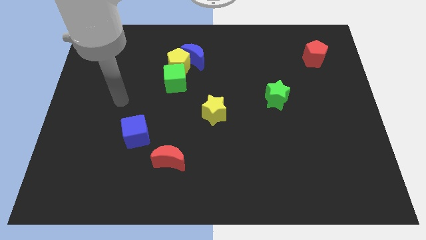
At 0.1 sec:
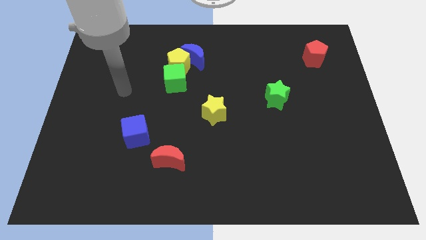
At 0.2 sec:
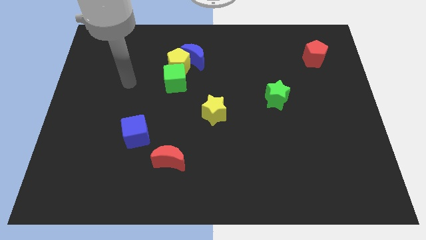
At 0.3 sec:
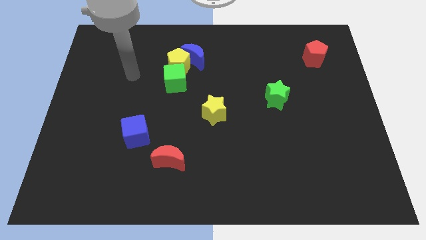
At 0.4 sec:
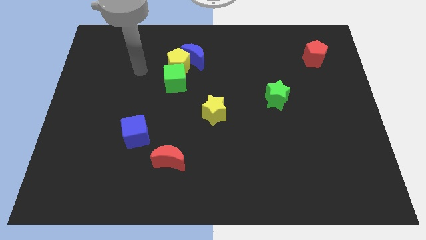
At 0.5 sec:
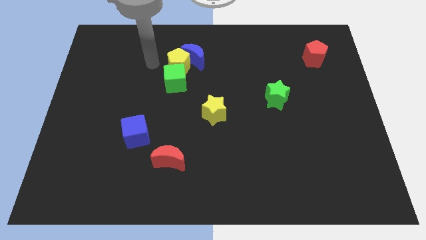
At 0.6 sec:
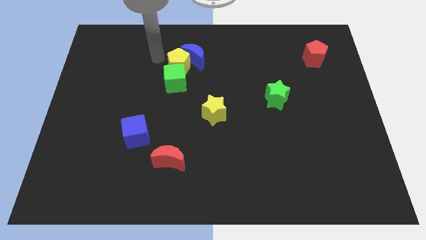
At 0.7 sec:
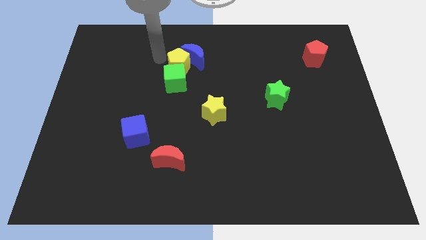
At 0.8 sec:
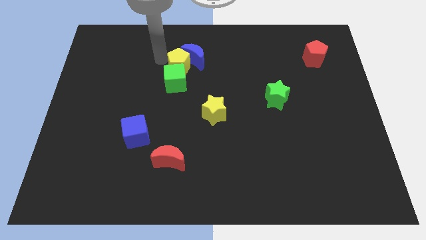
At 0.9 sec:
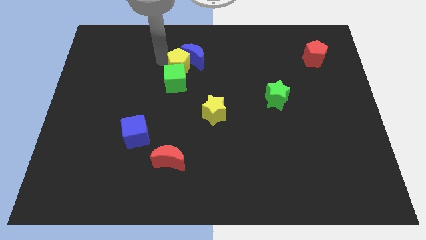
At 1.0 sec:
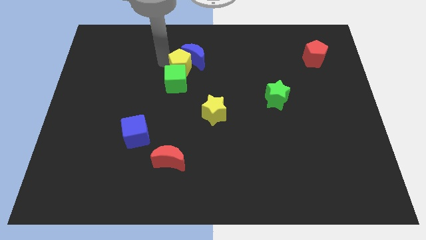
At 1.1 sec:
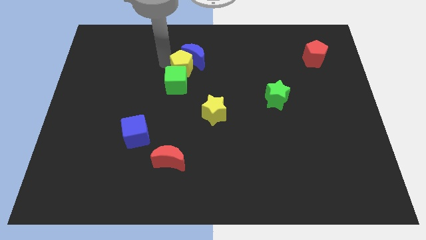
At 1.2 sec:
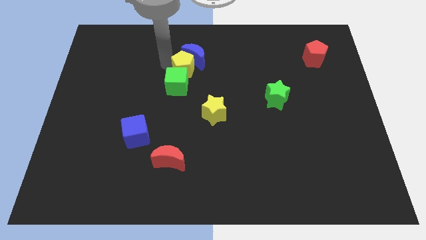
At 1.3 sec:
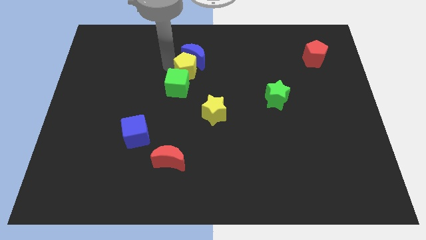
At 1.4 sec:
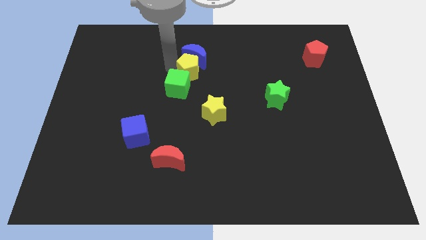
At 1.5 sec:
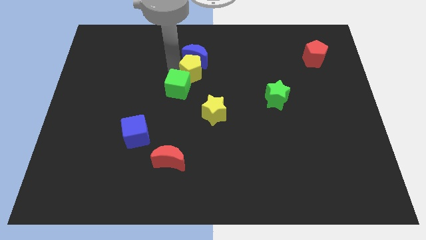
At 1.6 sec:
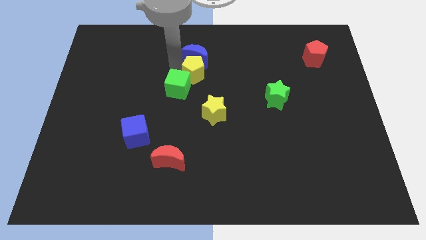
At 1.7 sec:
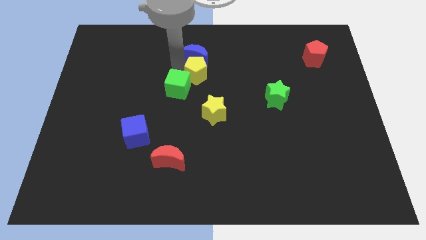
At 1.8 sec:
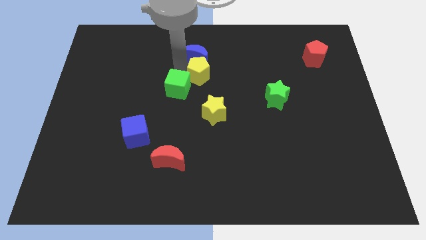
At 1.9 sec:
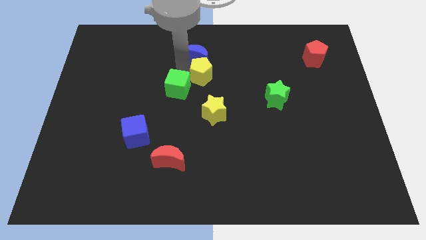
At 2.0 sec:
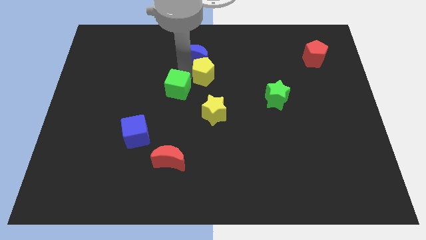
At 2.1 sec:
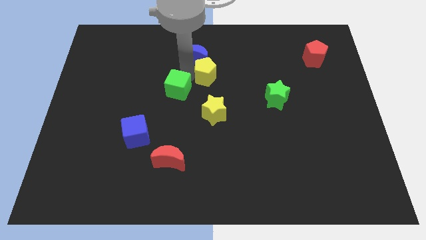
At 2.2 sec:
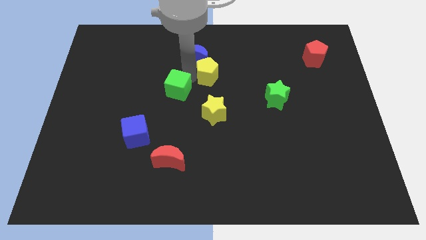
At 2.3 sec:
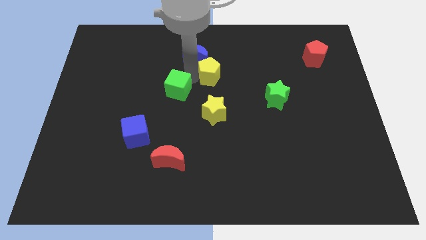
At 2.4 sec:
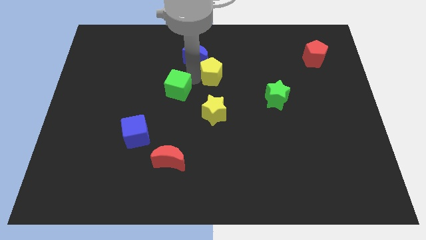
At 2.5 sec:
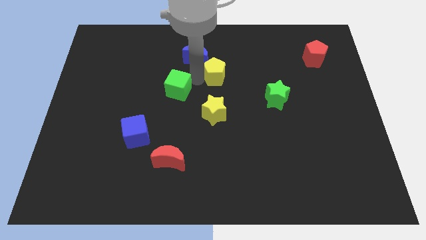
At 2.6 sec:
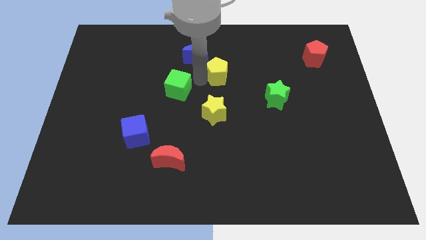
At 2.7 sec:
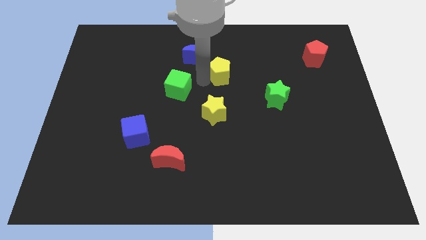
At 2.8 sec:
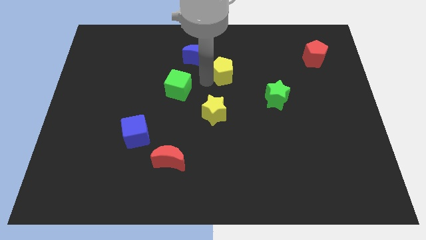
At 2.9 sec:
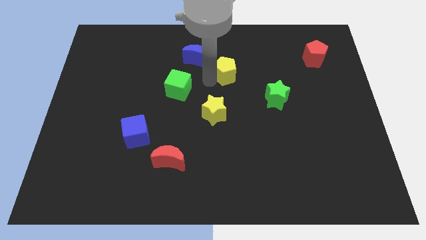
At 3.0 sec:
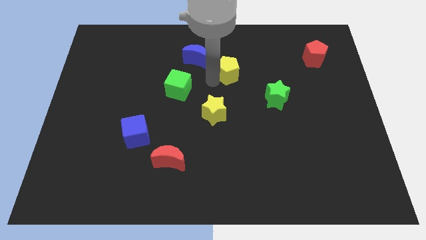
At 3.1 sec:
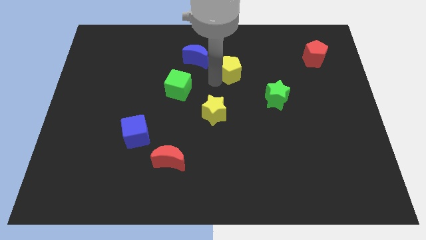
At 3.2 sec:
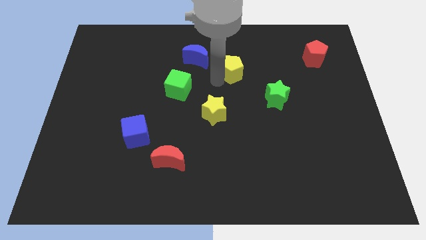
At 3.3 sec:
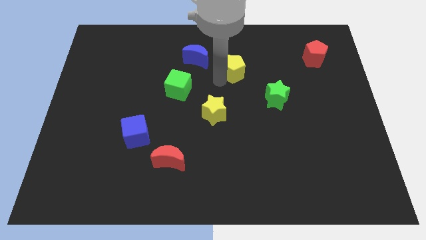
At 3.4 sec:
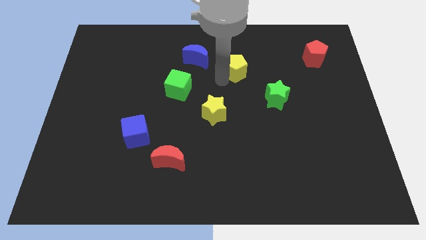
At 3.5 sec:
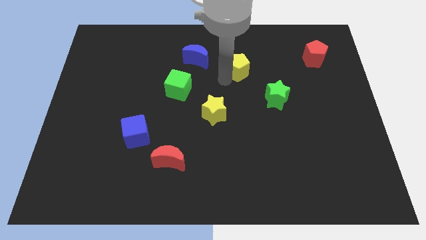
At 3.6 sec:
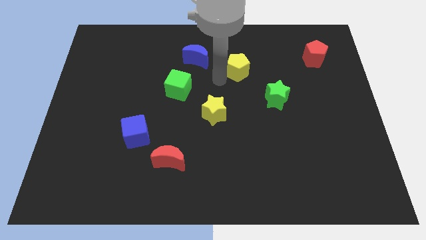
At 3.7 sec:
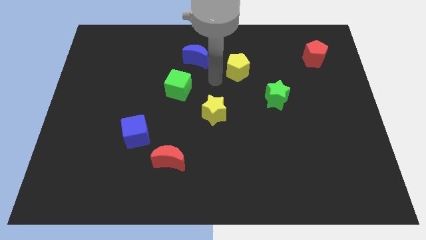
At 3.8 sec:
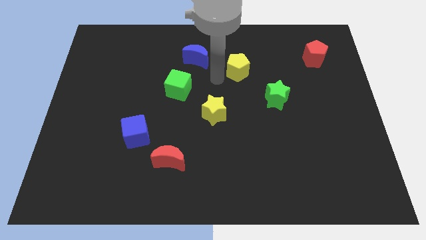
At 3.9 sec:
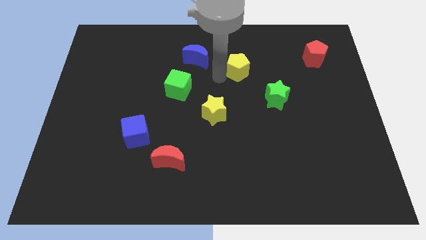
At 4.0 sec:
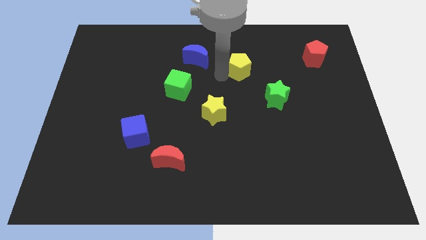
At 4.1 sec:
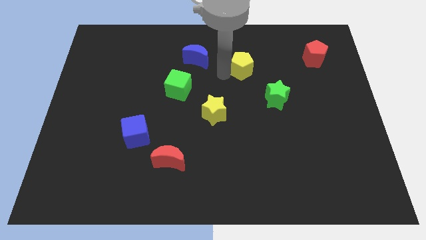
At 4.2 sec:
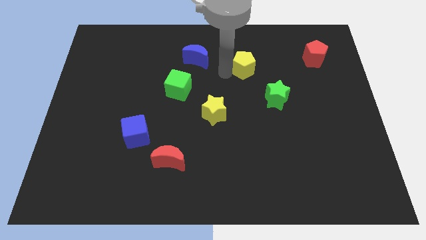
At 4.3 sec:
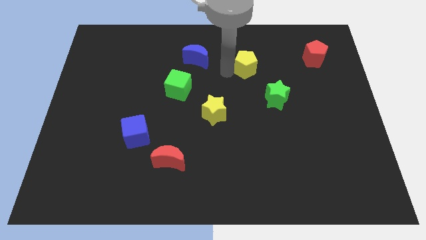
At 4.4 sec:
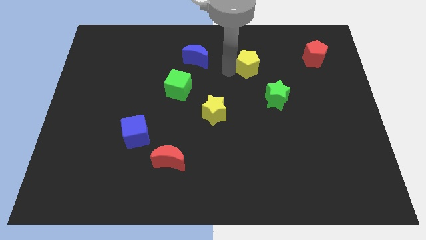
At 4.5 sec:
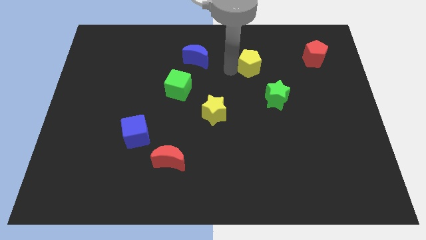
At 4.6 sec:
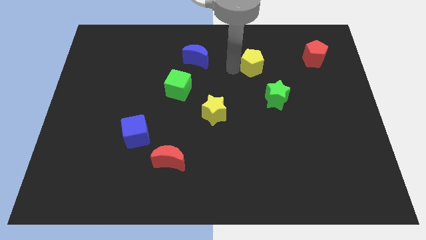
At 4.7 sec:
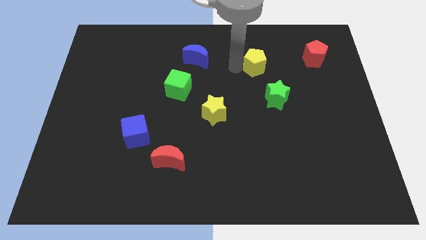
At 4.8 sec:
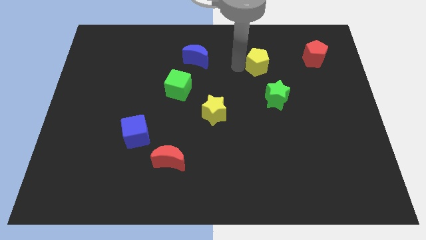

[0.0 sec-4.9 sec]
slide the yellow pentagon to the right

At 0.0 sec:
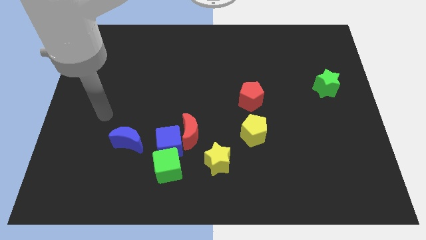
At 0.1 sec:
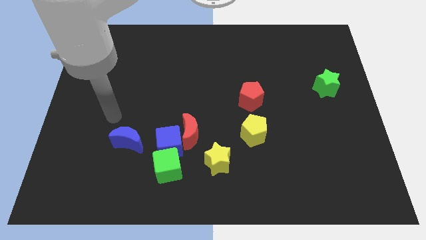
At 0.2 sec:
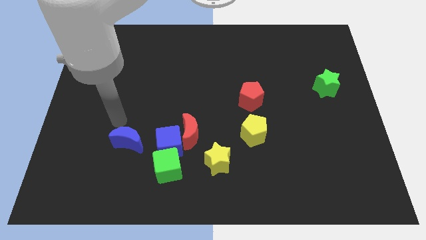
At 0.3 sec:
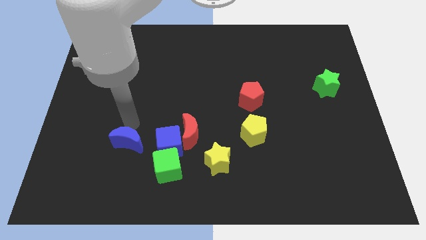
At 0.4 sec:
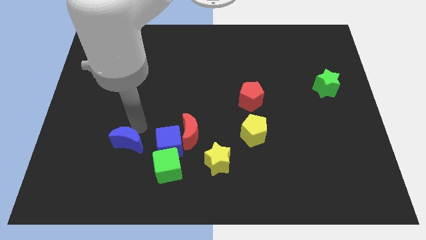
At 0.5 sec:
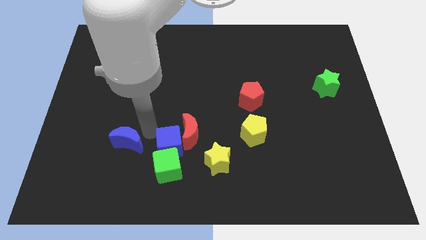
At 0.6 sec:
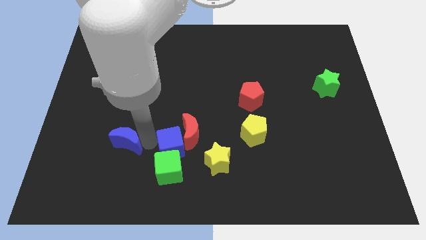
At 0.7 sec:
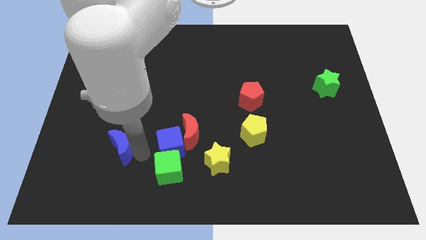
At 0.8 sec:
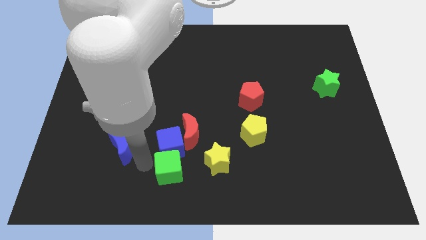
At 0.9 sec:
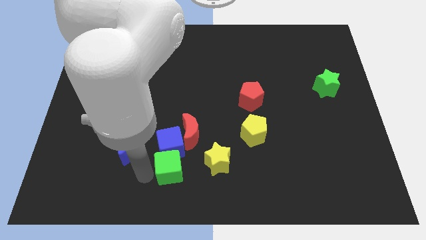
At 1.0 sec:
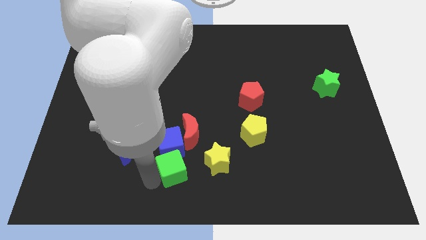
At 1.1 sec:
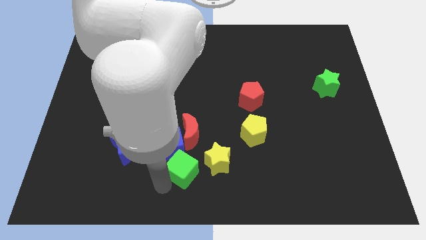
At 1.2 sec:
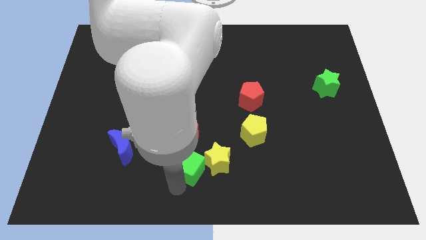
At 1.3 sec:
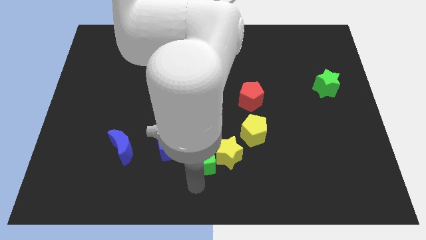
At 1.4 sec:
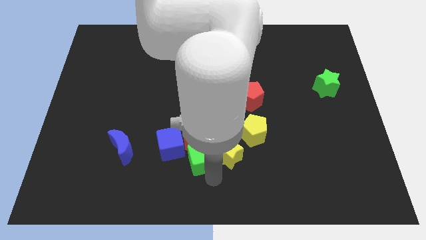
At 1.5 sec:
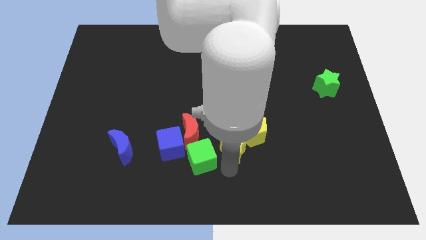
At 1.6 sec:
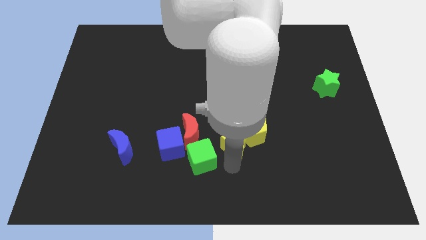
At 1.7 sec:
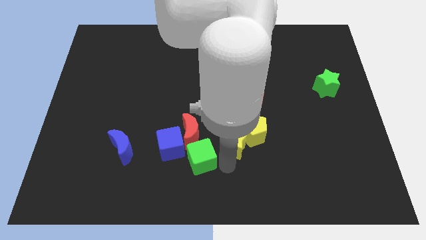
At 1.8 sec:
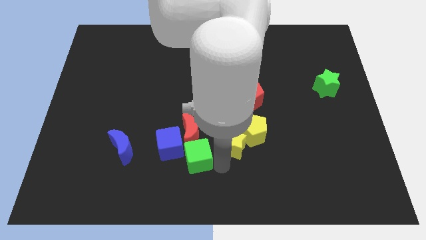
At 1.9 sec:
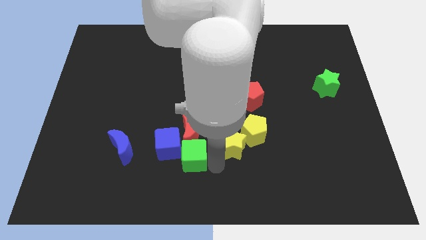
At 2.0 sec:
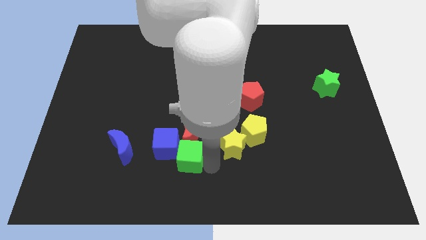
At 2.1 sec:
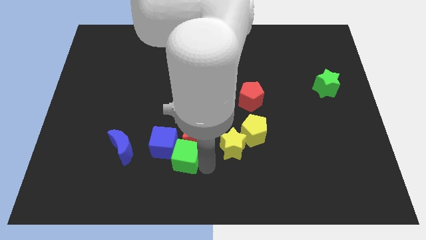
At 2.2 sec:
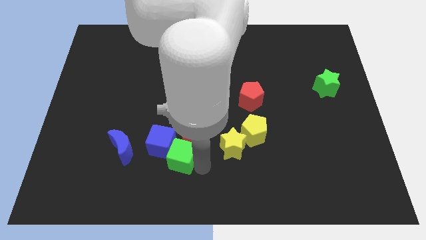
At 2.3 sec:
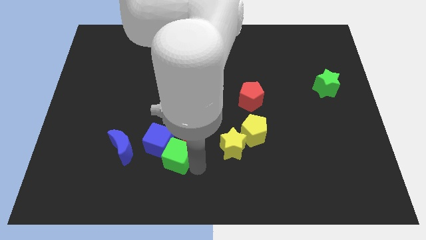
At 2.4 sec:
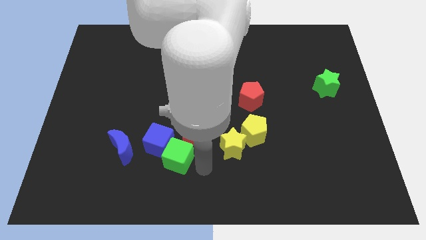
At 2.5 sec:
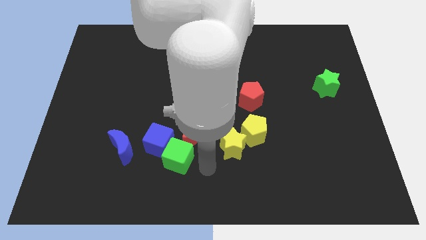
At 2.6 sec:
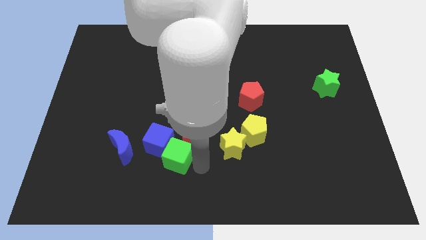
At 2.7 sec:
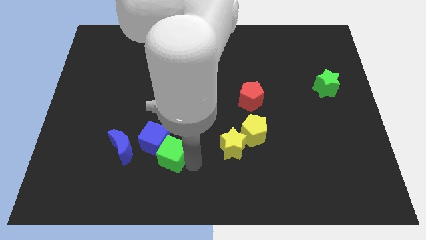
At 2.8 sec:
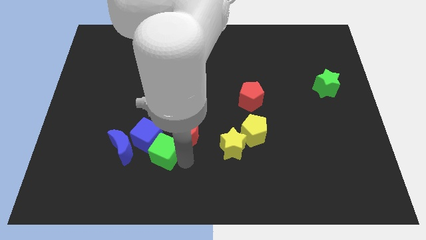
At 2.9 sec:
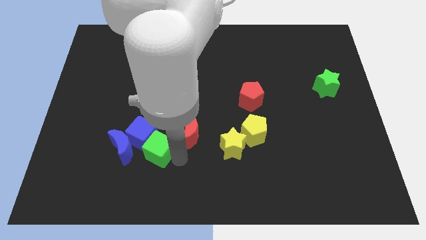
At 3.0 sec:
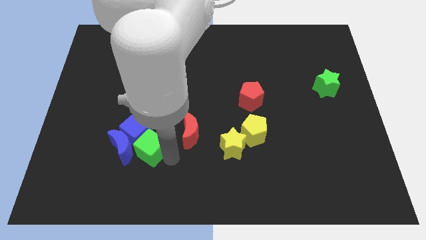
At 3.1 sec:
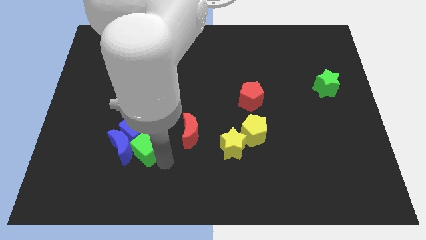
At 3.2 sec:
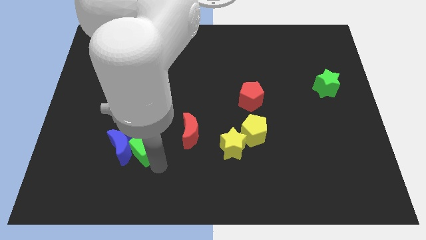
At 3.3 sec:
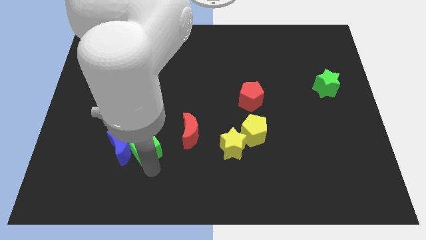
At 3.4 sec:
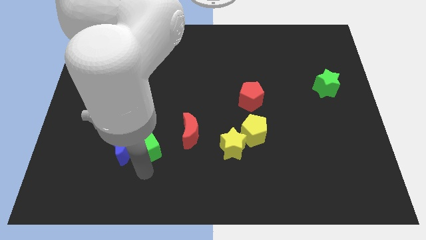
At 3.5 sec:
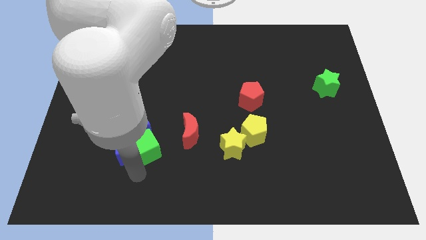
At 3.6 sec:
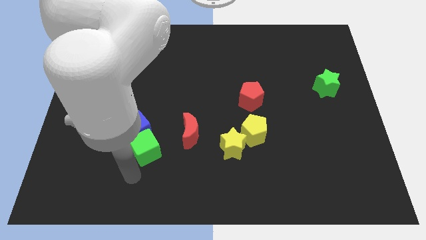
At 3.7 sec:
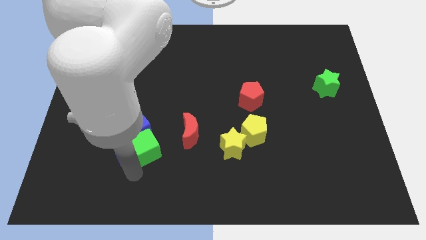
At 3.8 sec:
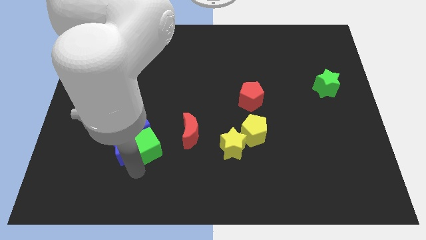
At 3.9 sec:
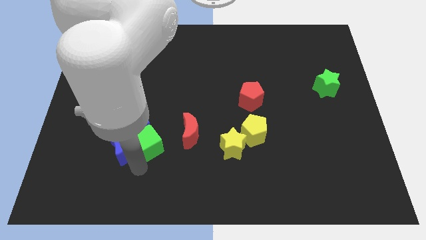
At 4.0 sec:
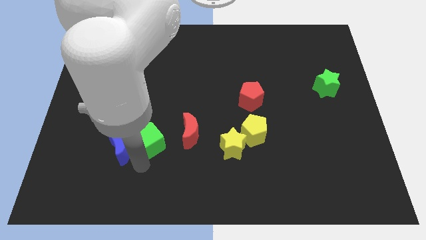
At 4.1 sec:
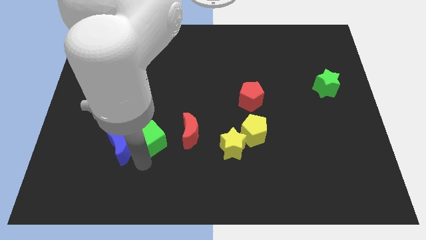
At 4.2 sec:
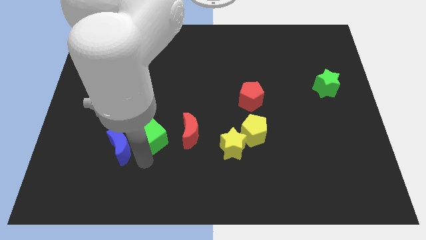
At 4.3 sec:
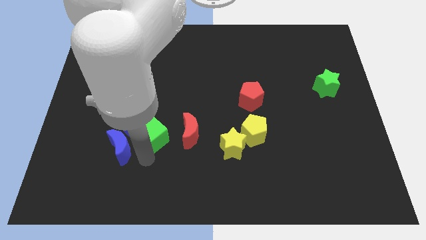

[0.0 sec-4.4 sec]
move the green cube a little upwards
